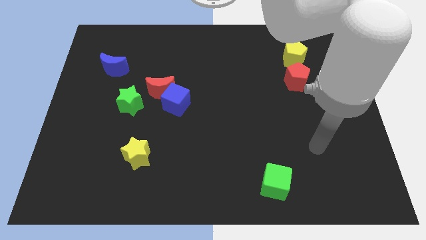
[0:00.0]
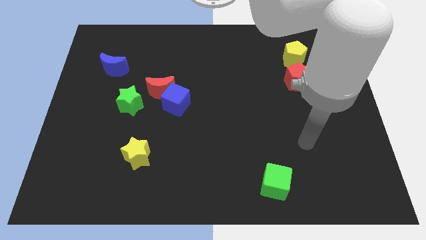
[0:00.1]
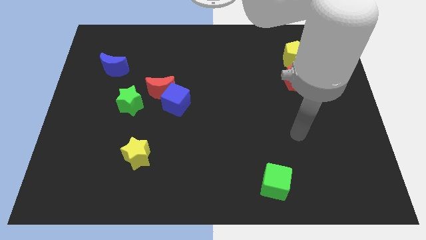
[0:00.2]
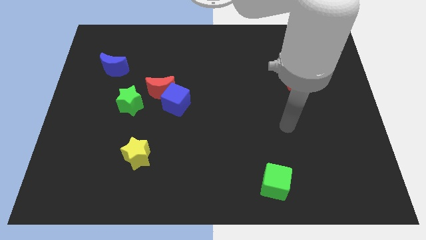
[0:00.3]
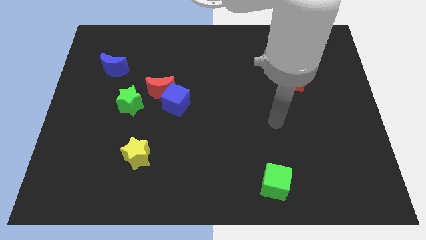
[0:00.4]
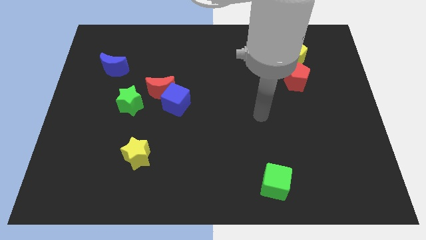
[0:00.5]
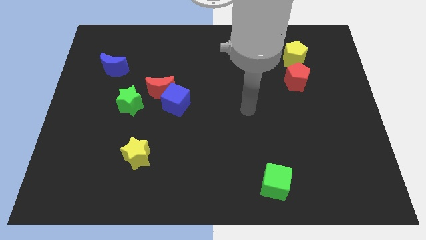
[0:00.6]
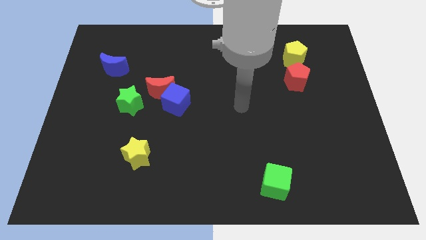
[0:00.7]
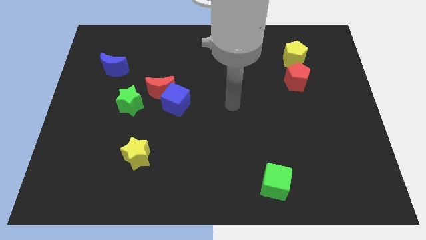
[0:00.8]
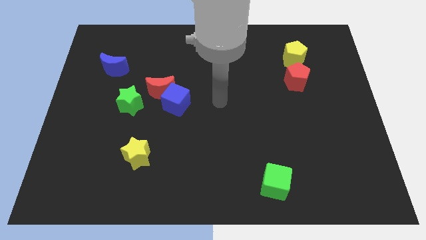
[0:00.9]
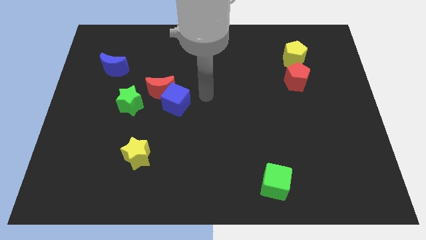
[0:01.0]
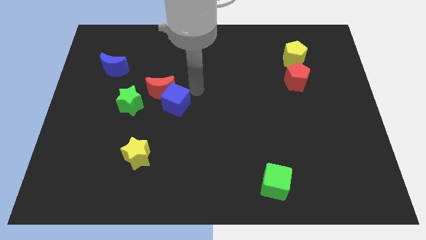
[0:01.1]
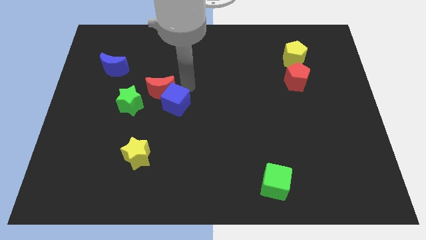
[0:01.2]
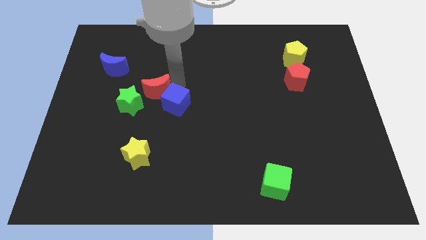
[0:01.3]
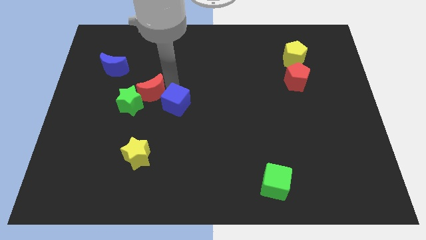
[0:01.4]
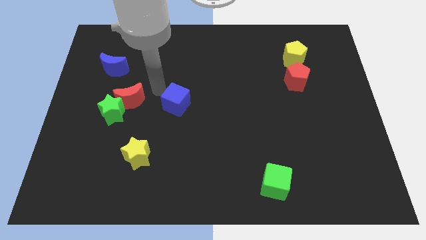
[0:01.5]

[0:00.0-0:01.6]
separate the blue cube from the red moon

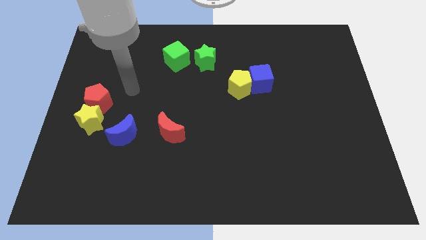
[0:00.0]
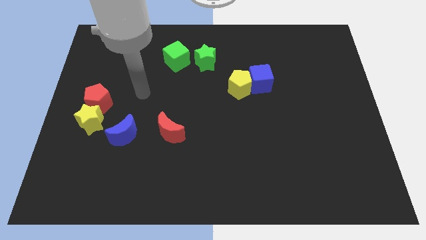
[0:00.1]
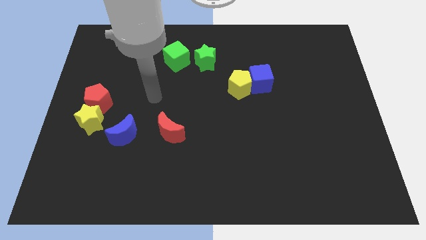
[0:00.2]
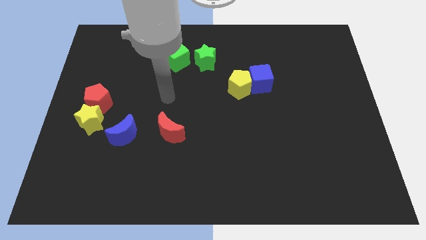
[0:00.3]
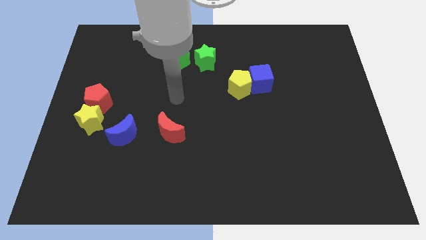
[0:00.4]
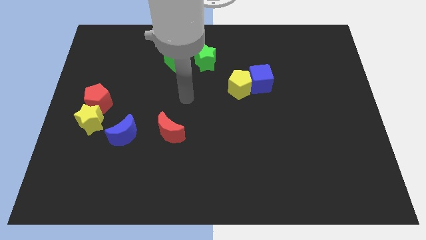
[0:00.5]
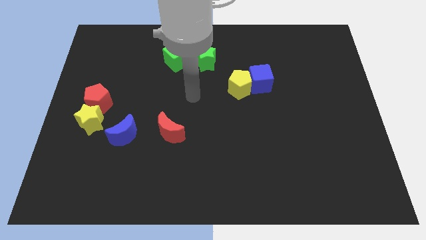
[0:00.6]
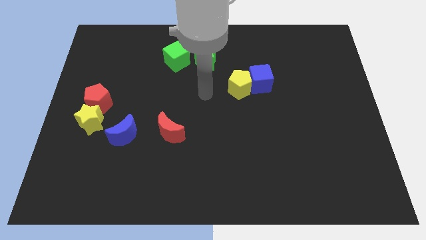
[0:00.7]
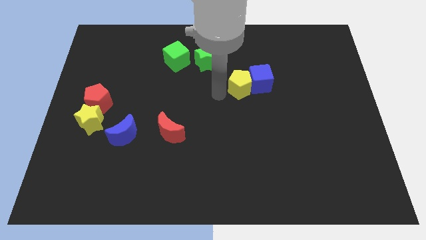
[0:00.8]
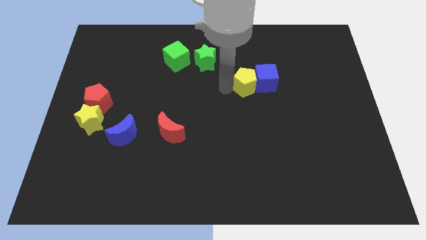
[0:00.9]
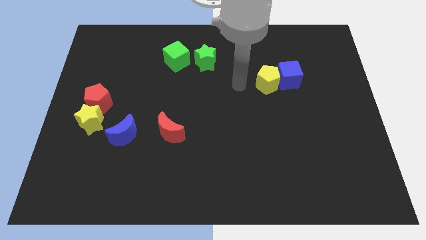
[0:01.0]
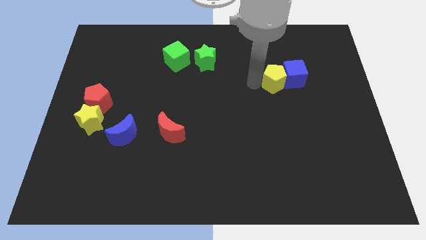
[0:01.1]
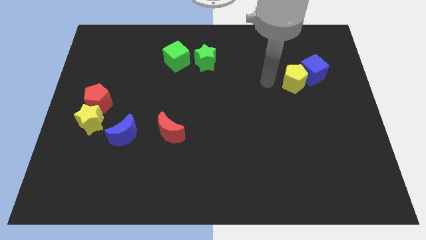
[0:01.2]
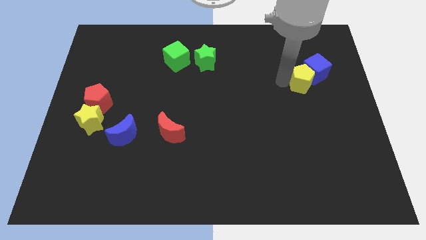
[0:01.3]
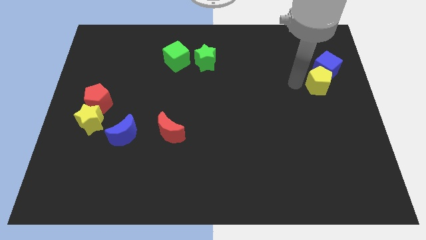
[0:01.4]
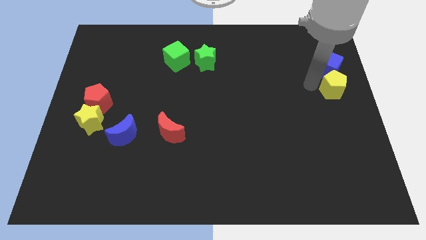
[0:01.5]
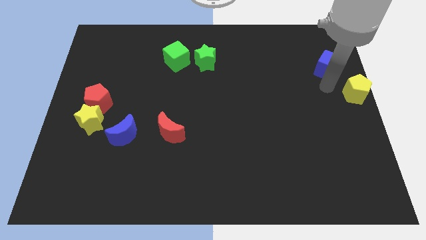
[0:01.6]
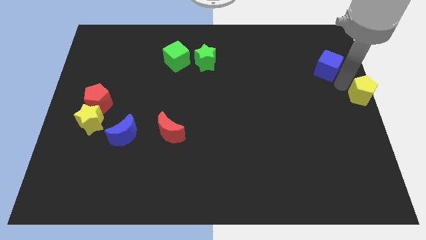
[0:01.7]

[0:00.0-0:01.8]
pull the blue cube apart from the yellow pentagon

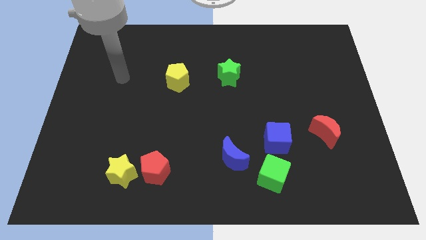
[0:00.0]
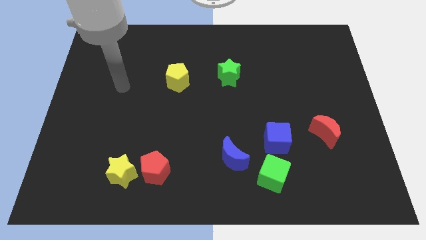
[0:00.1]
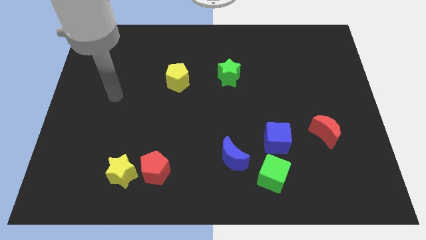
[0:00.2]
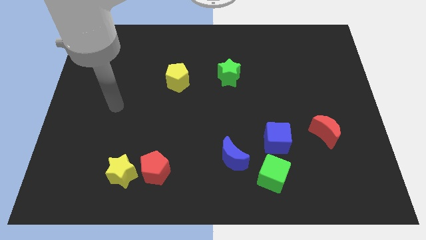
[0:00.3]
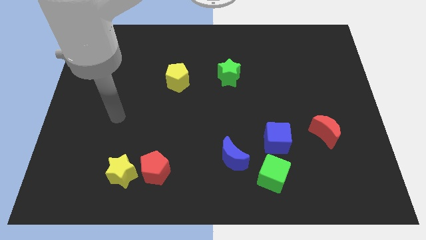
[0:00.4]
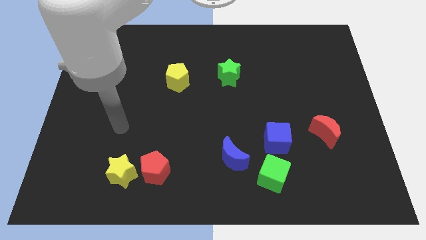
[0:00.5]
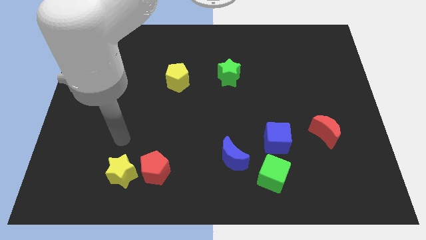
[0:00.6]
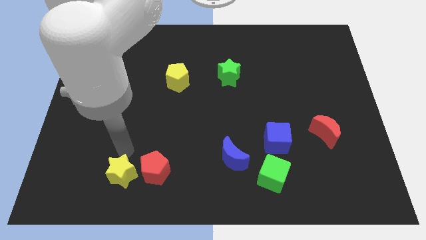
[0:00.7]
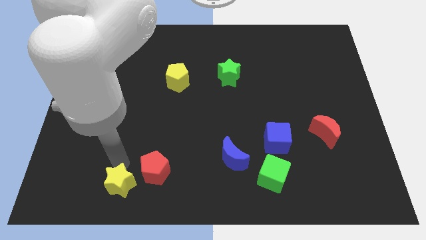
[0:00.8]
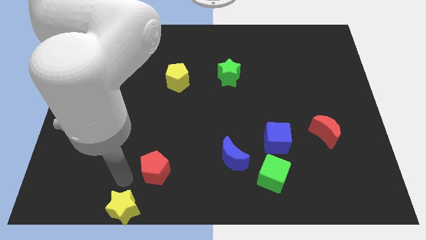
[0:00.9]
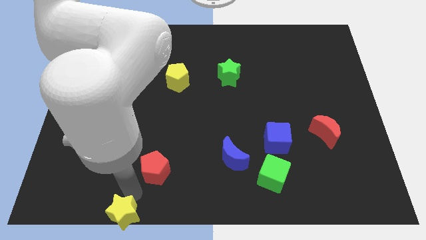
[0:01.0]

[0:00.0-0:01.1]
separate the red pentagon from the yellow star

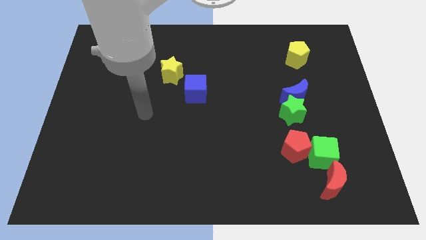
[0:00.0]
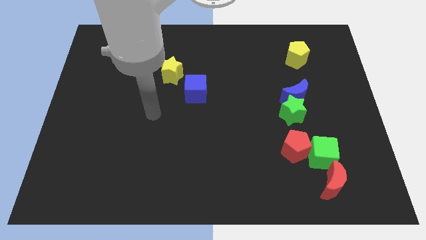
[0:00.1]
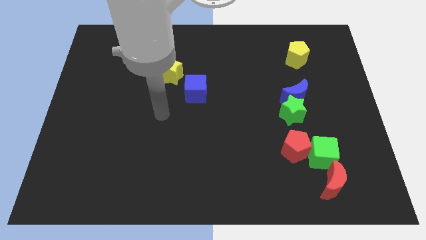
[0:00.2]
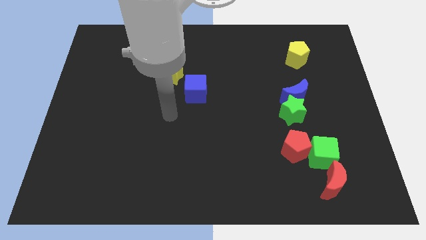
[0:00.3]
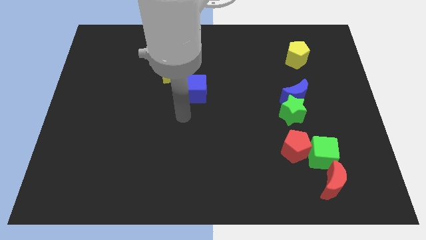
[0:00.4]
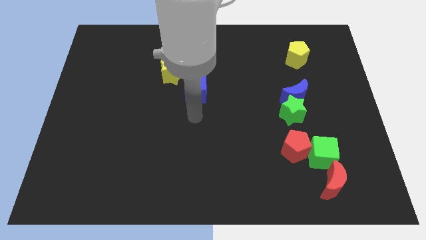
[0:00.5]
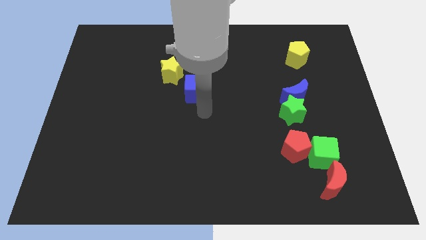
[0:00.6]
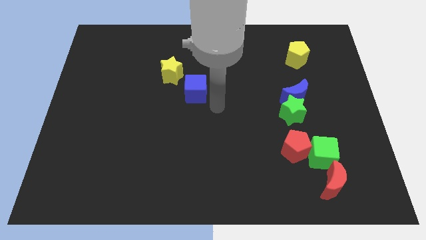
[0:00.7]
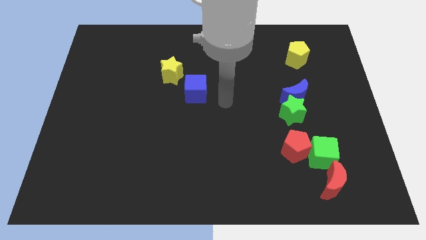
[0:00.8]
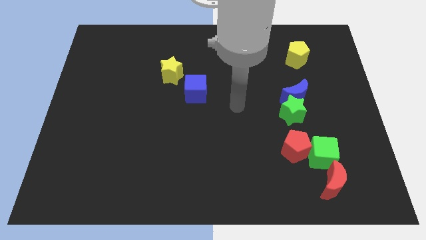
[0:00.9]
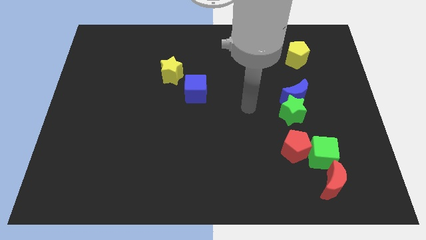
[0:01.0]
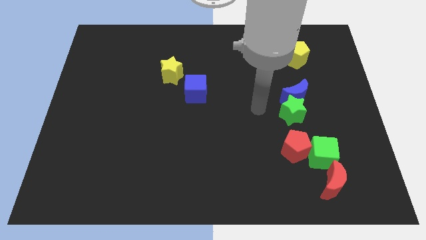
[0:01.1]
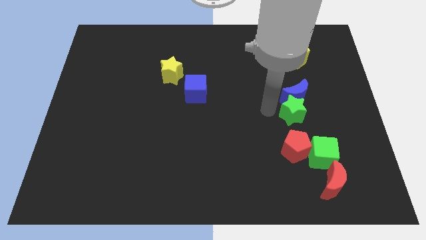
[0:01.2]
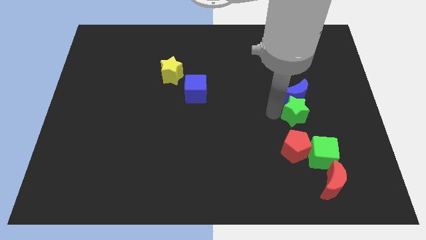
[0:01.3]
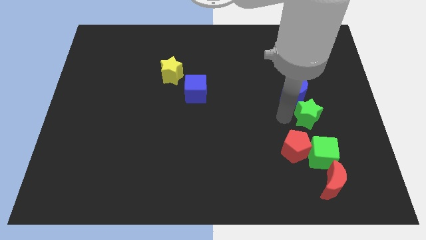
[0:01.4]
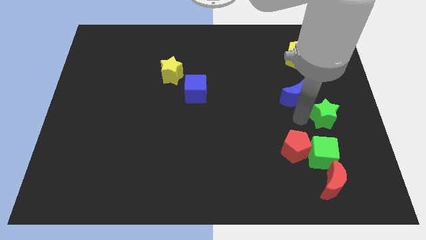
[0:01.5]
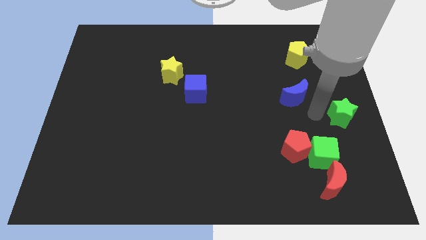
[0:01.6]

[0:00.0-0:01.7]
separate the blue moon from the green star

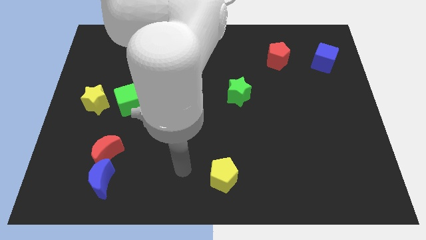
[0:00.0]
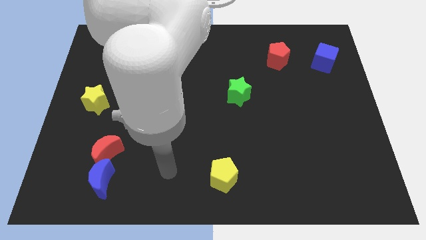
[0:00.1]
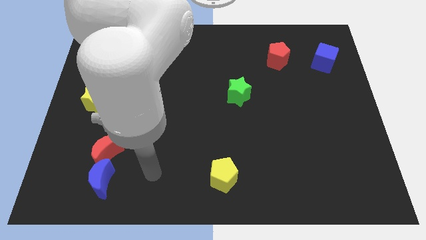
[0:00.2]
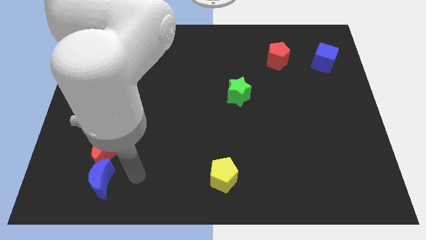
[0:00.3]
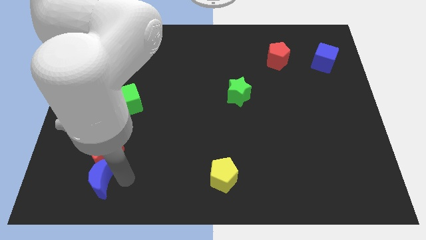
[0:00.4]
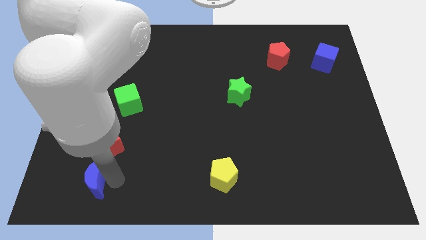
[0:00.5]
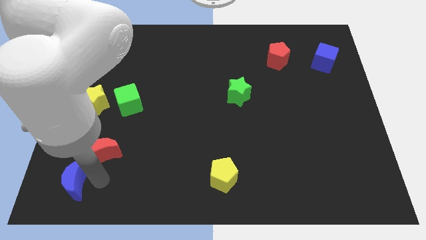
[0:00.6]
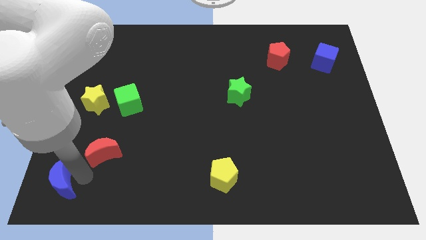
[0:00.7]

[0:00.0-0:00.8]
move the red moon away from the blue moon

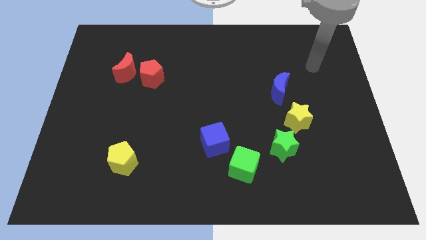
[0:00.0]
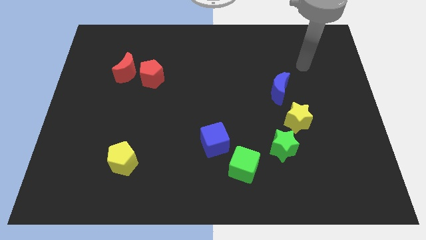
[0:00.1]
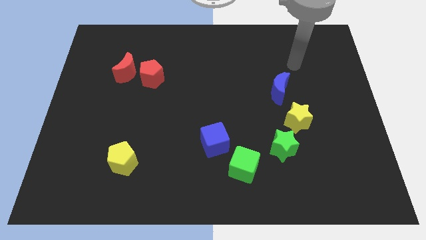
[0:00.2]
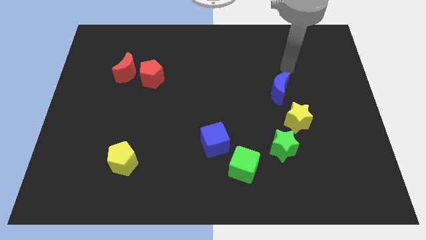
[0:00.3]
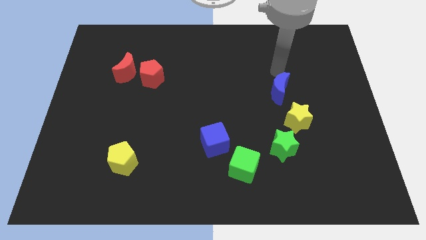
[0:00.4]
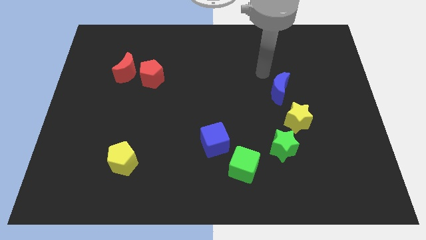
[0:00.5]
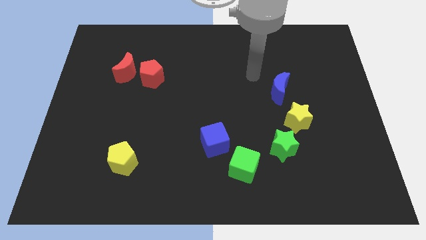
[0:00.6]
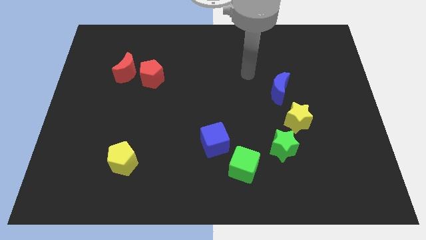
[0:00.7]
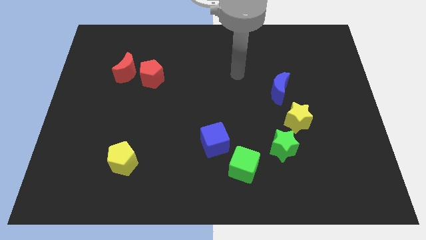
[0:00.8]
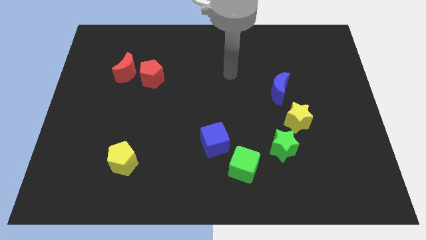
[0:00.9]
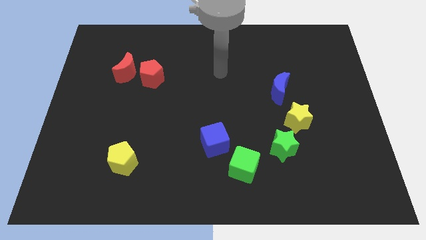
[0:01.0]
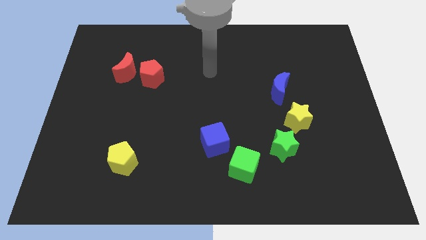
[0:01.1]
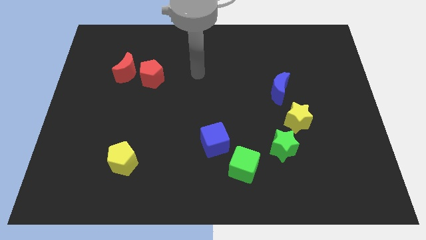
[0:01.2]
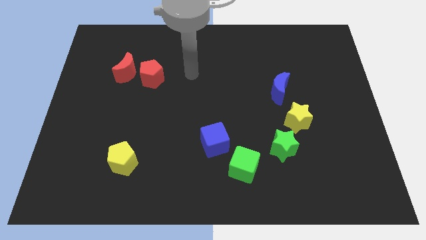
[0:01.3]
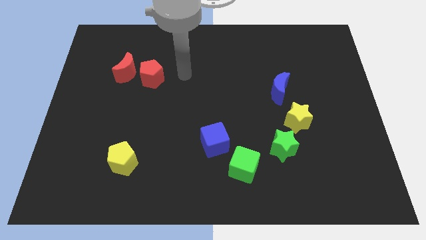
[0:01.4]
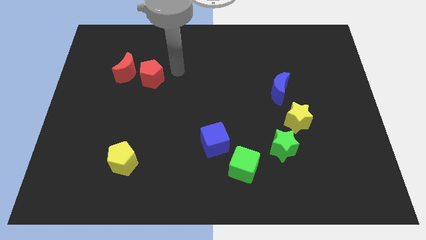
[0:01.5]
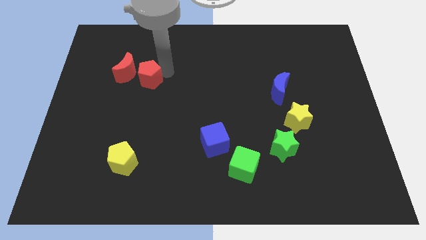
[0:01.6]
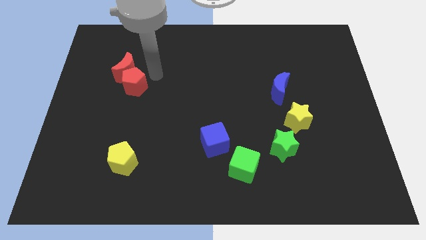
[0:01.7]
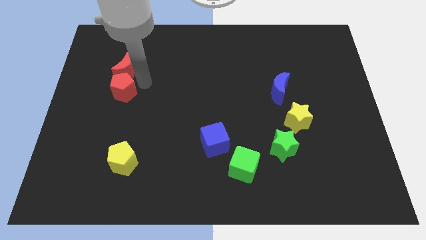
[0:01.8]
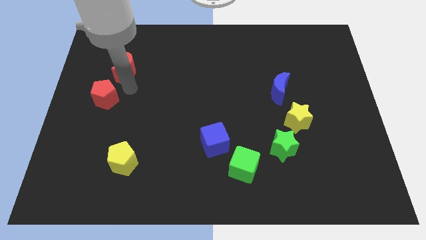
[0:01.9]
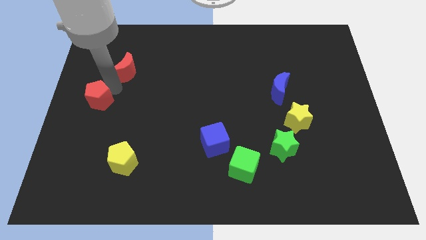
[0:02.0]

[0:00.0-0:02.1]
move the red moon away from the red pentagon

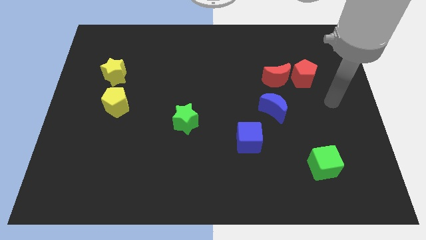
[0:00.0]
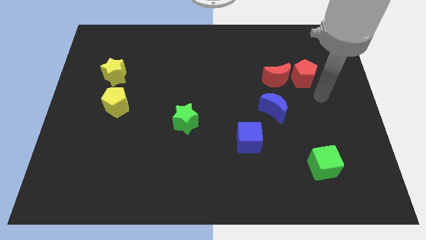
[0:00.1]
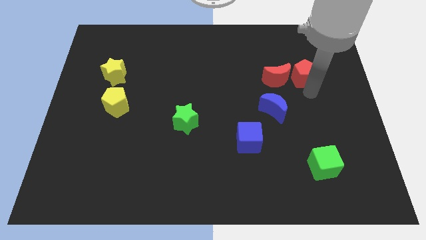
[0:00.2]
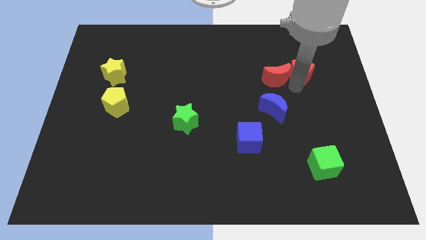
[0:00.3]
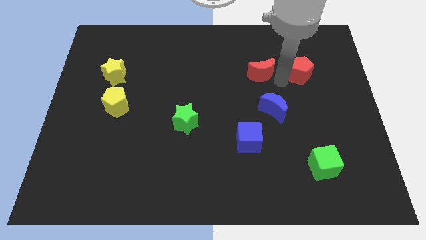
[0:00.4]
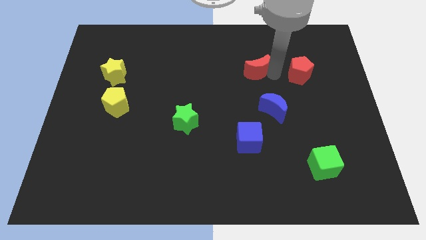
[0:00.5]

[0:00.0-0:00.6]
move the red pentagon away from the red moon
